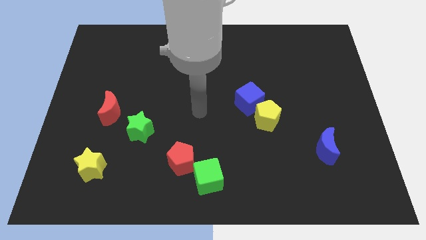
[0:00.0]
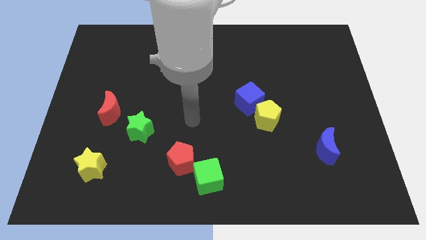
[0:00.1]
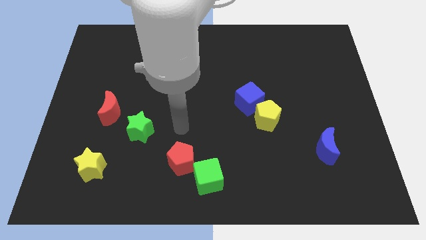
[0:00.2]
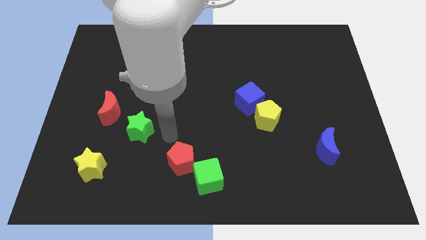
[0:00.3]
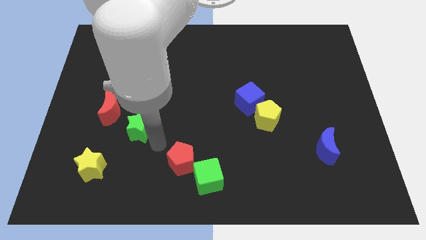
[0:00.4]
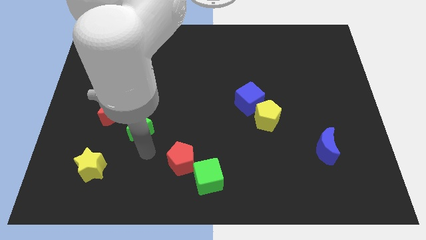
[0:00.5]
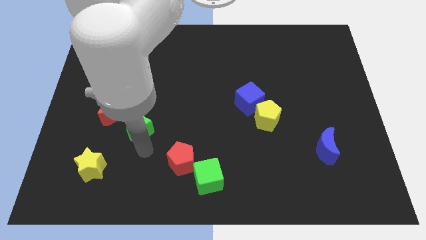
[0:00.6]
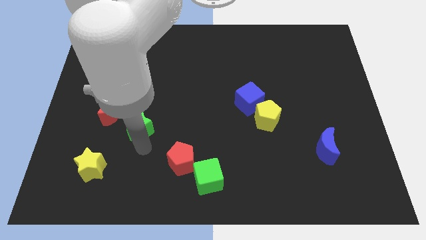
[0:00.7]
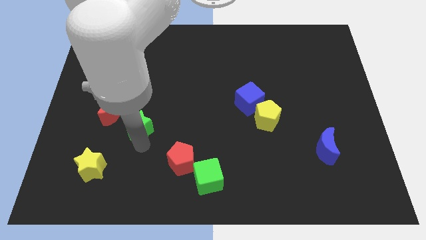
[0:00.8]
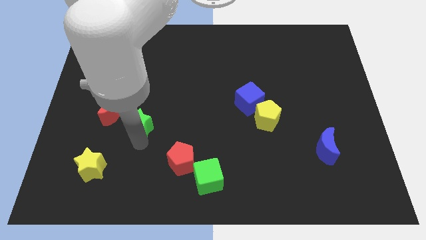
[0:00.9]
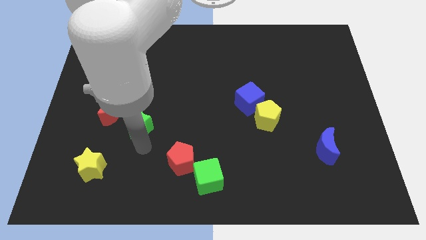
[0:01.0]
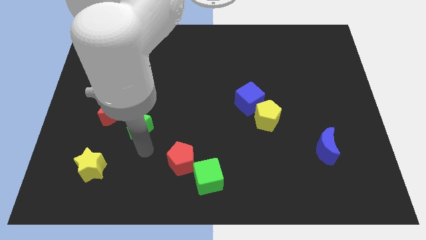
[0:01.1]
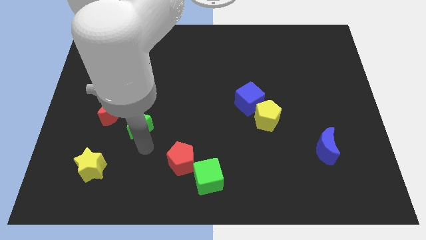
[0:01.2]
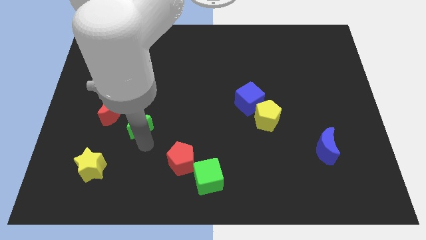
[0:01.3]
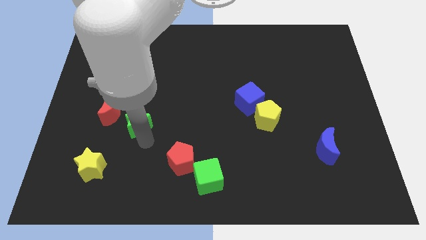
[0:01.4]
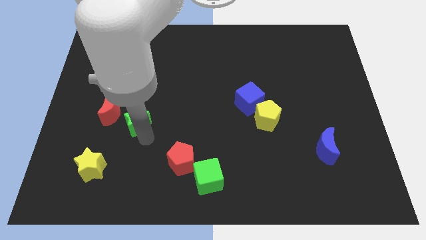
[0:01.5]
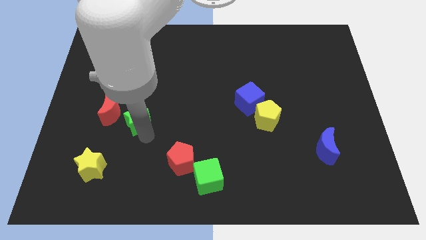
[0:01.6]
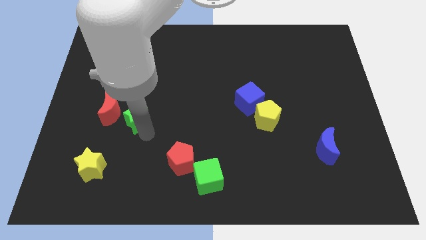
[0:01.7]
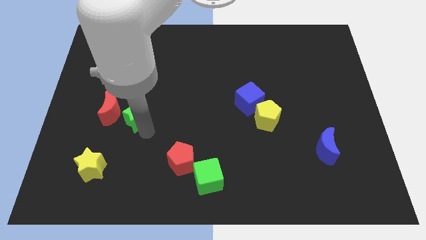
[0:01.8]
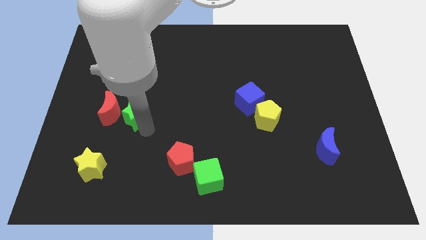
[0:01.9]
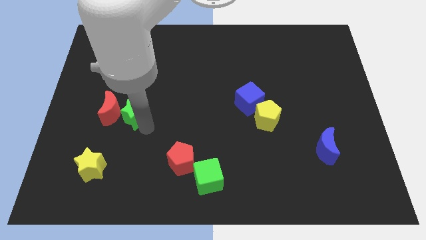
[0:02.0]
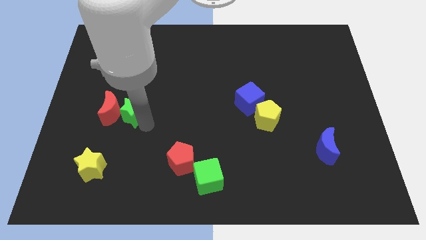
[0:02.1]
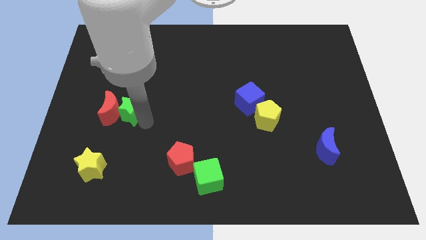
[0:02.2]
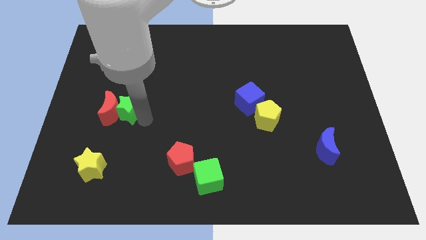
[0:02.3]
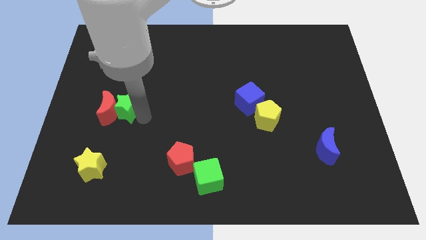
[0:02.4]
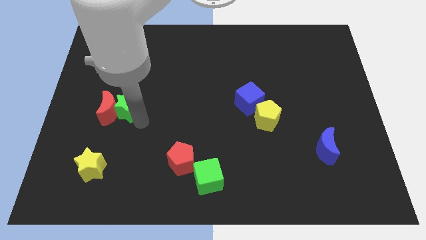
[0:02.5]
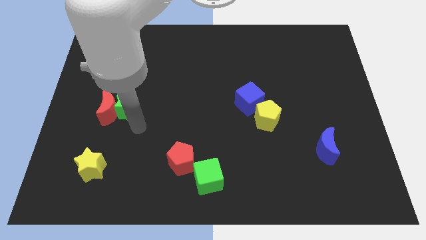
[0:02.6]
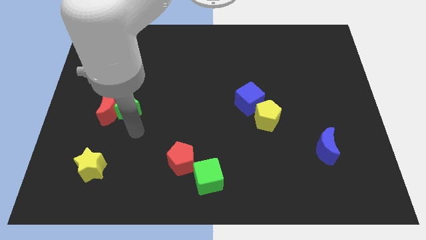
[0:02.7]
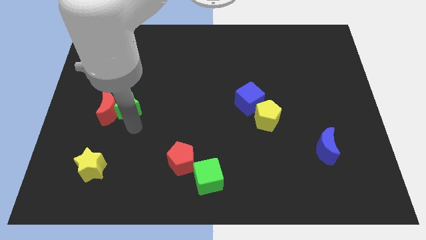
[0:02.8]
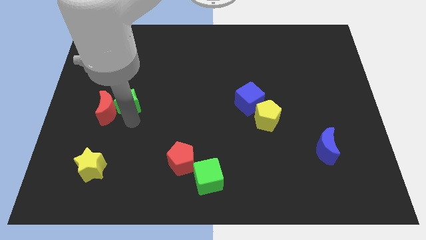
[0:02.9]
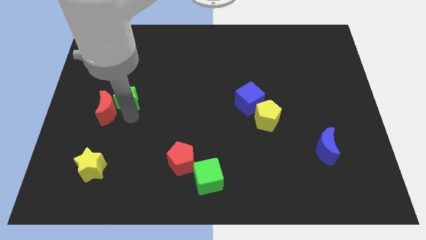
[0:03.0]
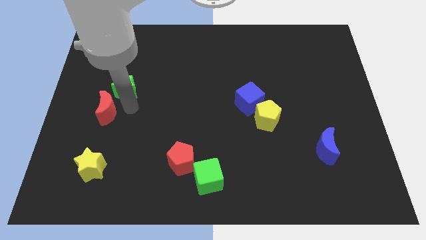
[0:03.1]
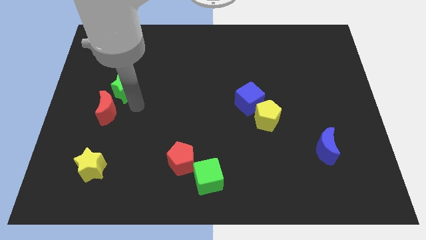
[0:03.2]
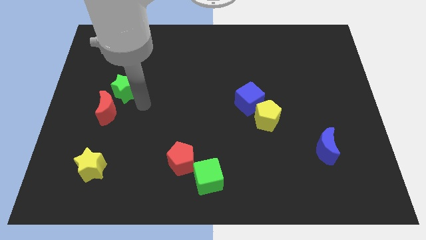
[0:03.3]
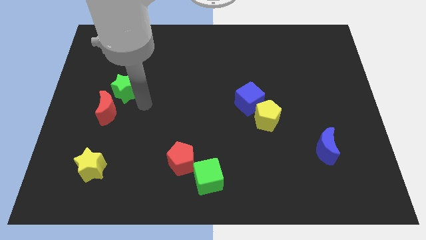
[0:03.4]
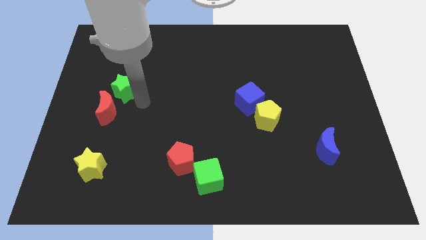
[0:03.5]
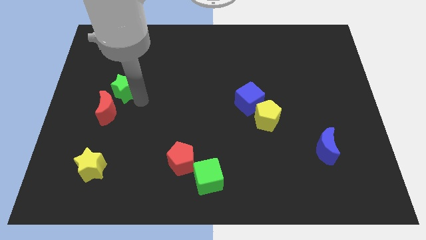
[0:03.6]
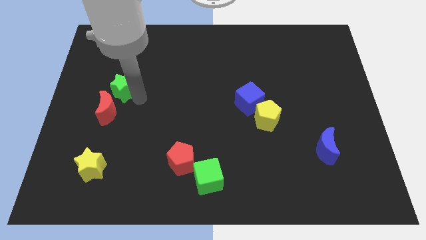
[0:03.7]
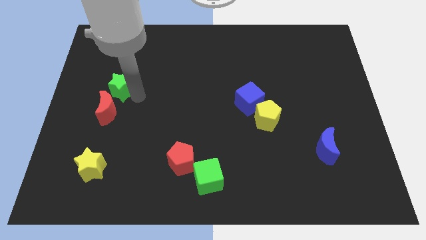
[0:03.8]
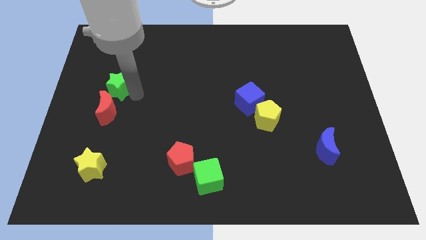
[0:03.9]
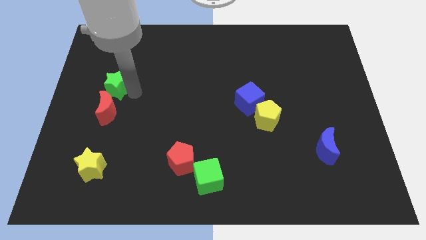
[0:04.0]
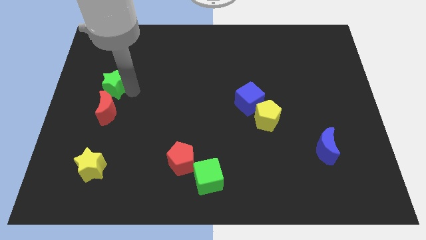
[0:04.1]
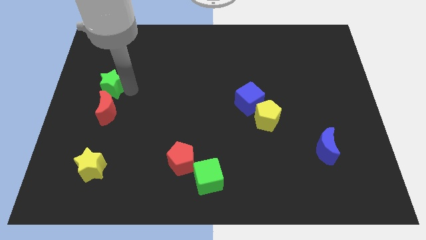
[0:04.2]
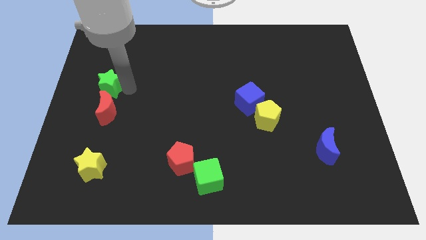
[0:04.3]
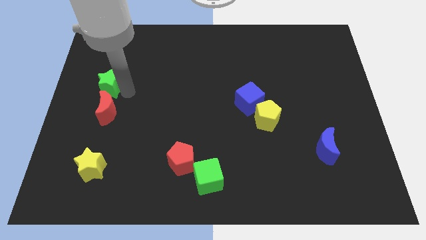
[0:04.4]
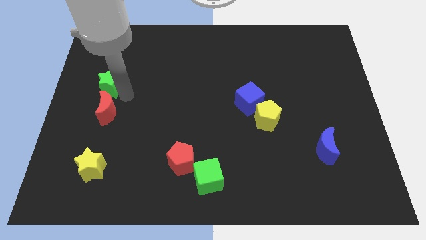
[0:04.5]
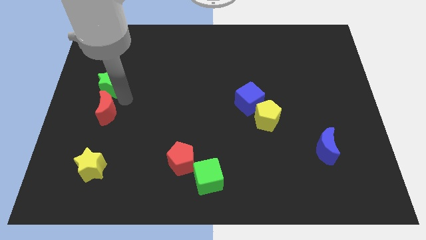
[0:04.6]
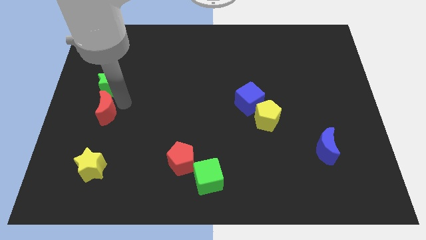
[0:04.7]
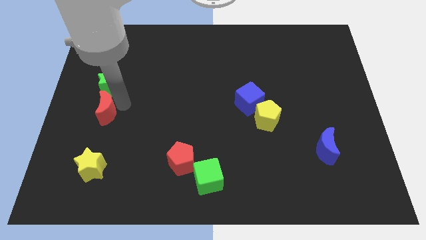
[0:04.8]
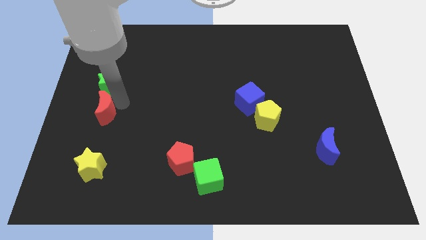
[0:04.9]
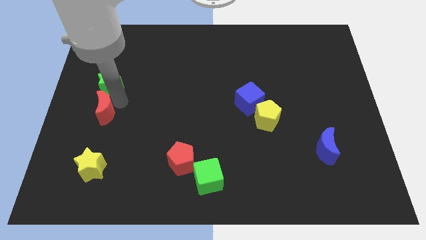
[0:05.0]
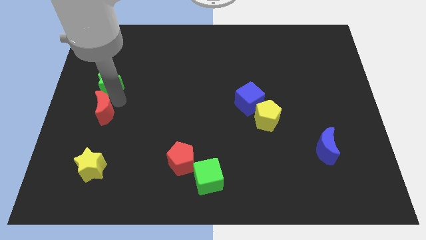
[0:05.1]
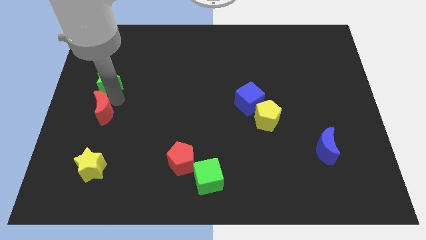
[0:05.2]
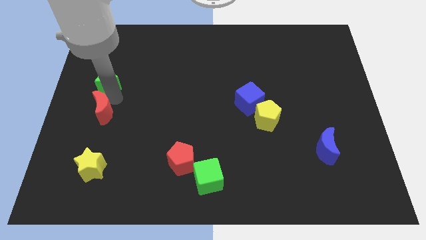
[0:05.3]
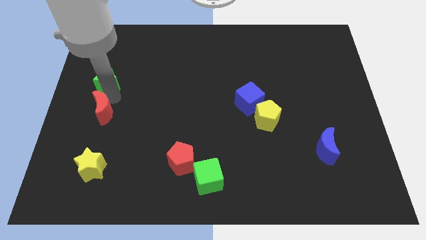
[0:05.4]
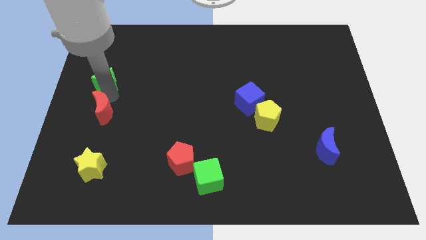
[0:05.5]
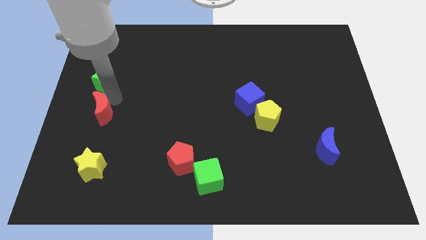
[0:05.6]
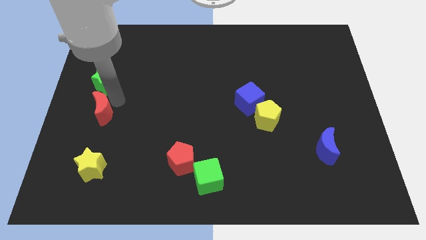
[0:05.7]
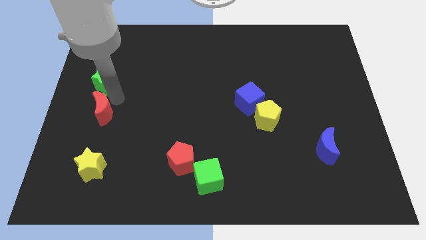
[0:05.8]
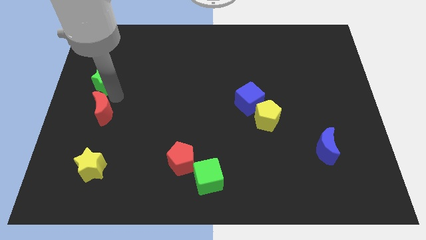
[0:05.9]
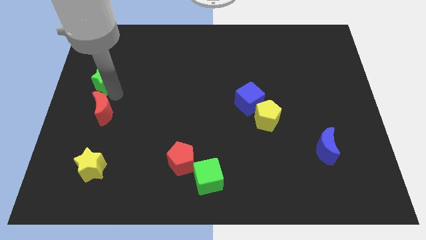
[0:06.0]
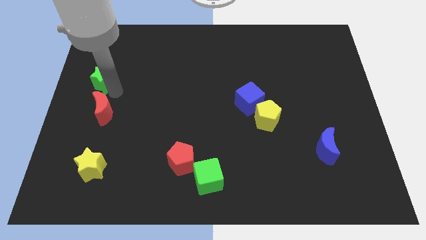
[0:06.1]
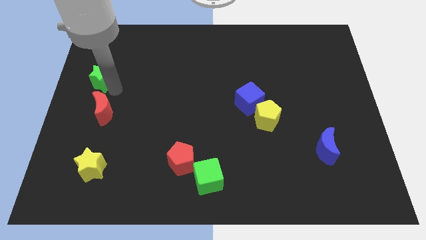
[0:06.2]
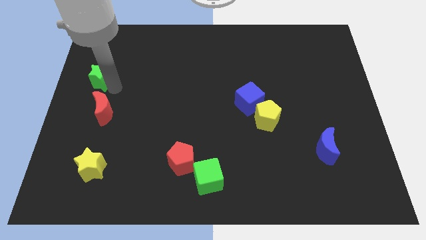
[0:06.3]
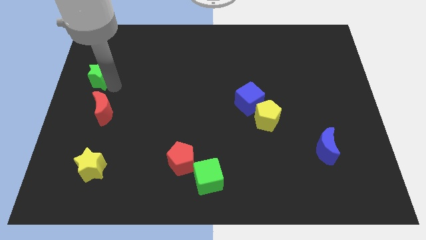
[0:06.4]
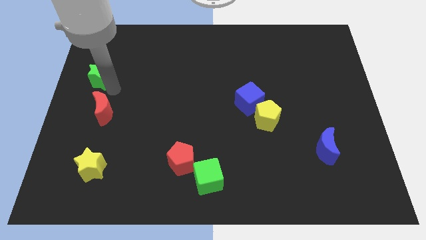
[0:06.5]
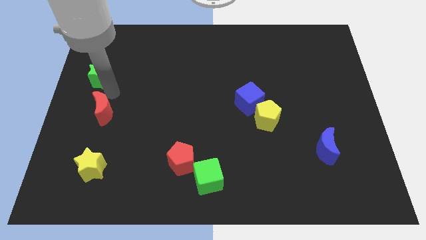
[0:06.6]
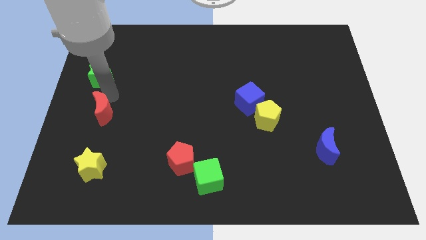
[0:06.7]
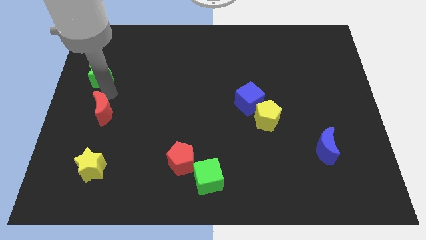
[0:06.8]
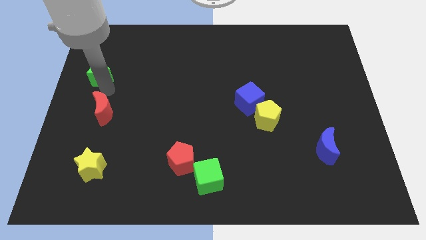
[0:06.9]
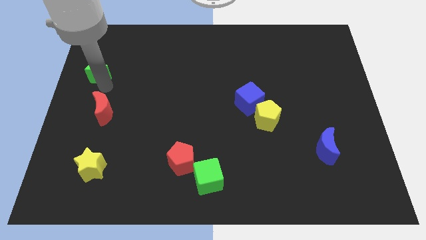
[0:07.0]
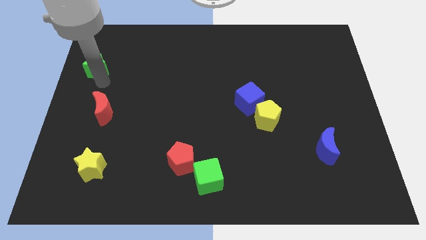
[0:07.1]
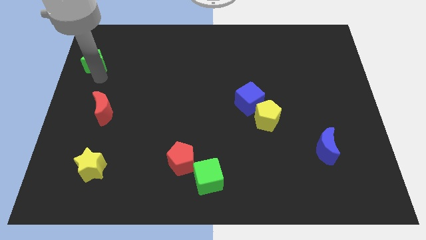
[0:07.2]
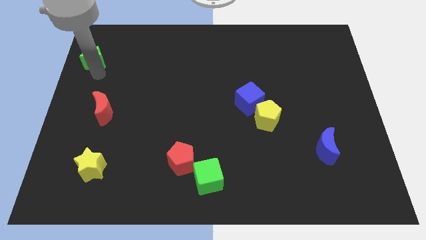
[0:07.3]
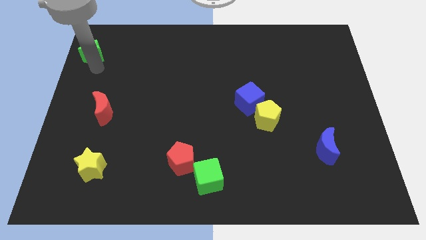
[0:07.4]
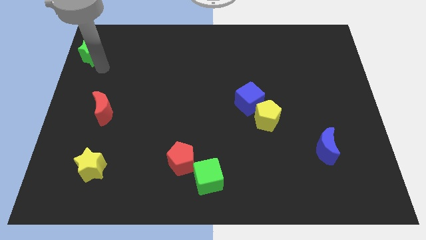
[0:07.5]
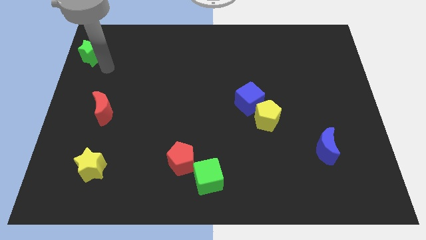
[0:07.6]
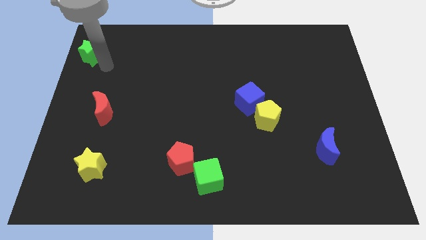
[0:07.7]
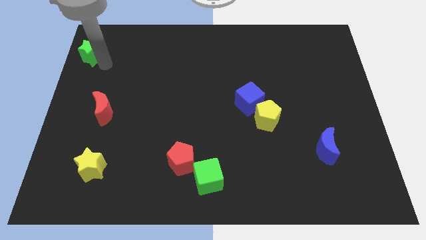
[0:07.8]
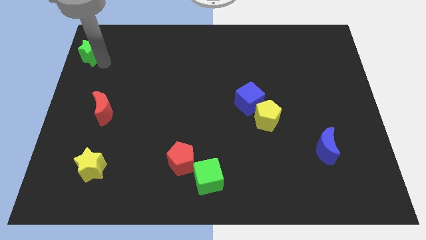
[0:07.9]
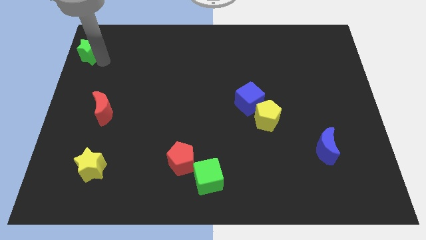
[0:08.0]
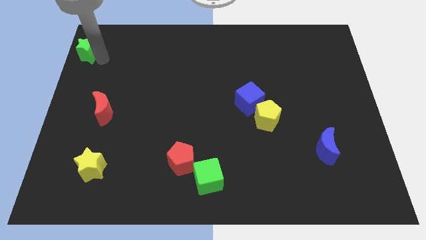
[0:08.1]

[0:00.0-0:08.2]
push the green star to the top left
